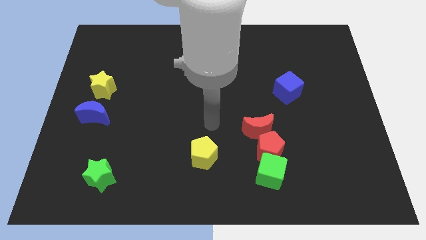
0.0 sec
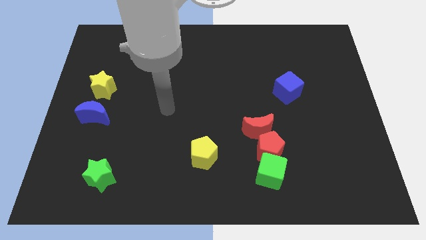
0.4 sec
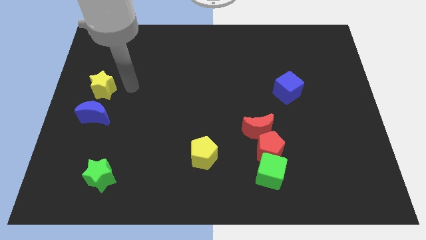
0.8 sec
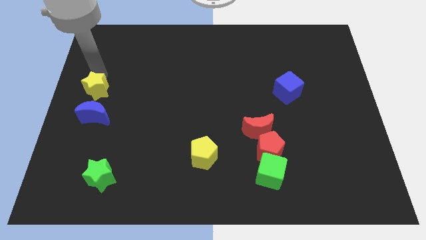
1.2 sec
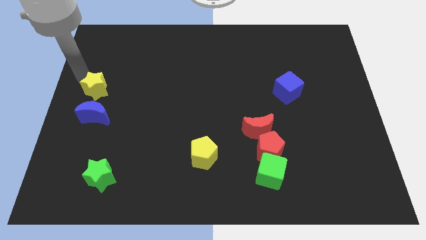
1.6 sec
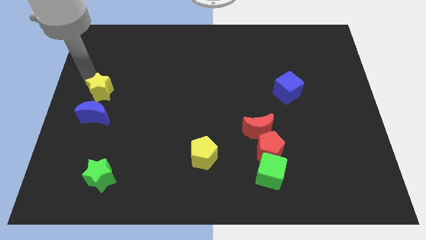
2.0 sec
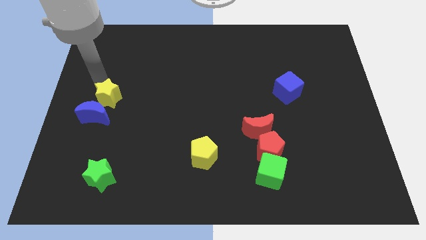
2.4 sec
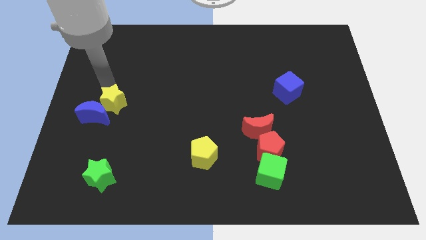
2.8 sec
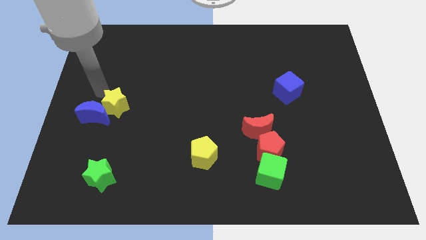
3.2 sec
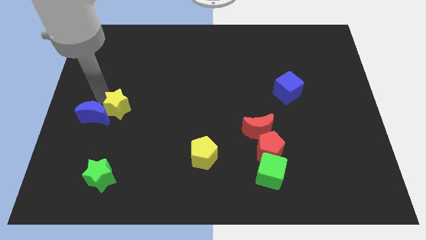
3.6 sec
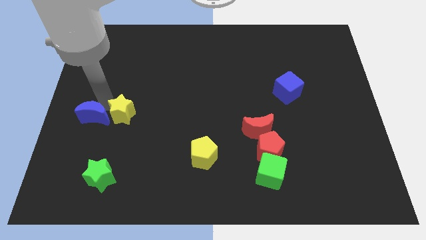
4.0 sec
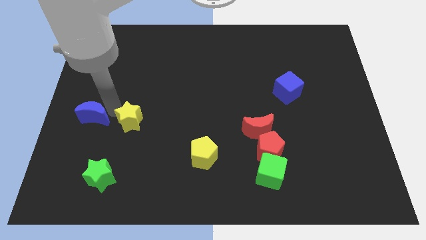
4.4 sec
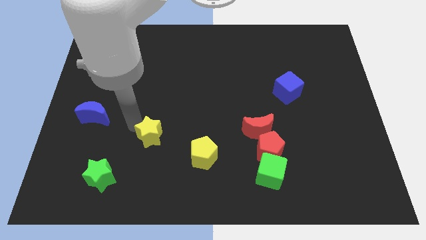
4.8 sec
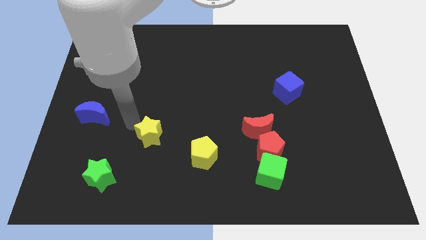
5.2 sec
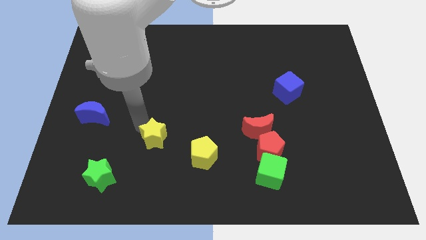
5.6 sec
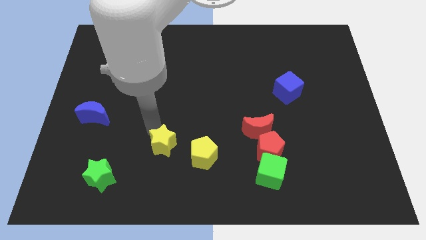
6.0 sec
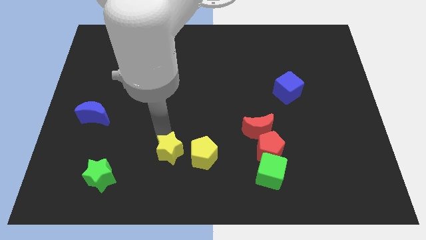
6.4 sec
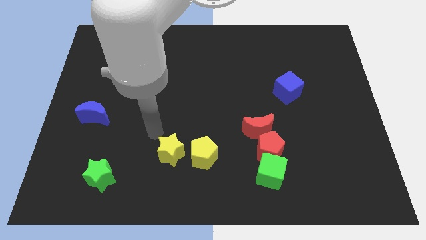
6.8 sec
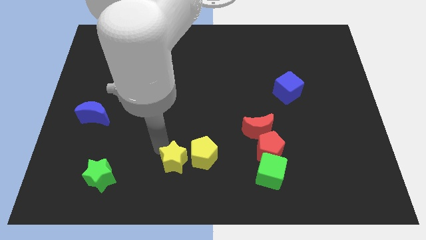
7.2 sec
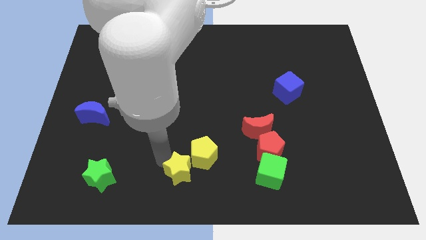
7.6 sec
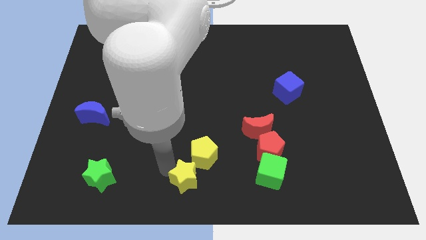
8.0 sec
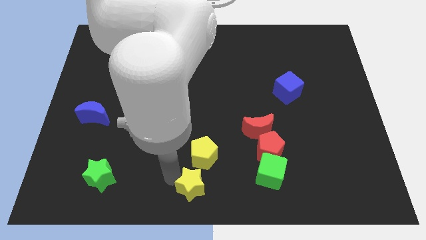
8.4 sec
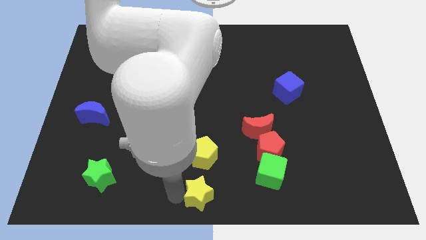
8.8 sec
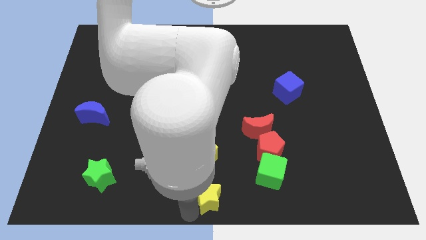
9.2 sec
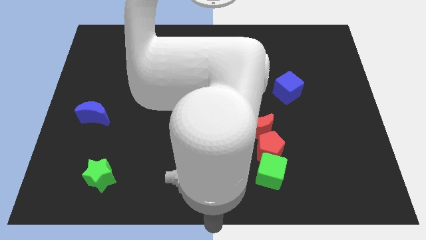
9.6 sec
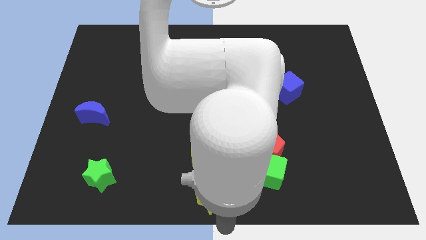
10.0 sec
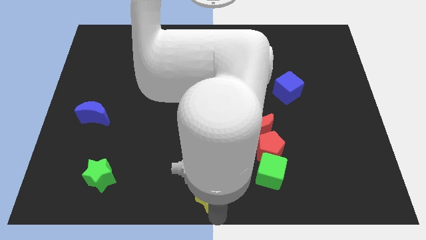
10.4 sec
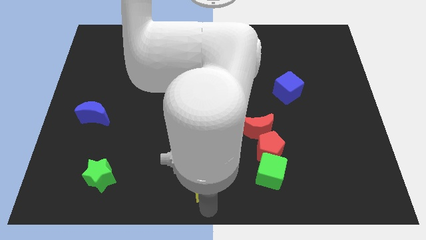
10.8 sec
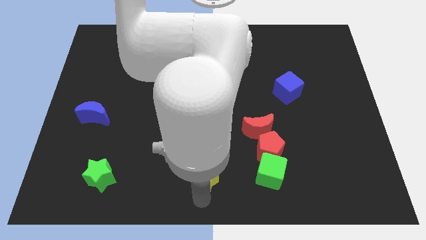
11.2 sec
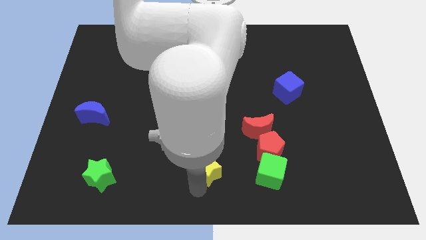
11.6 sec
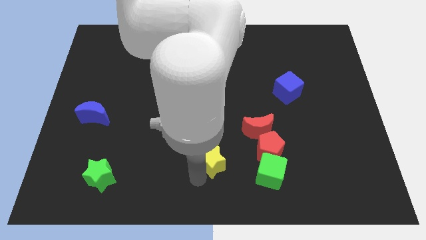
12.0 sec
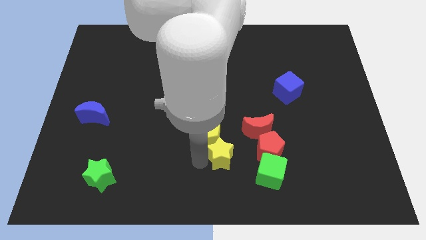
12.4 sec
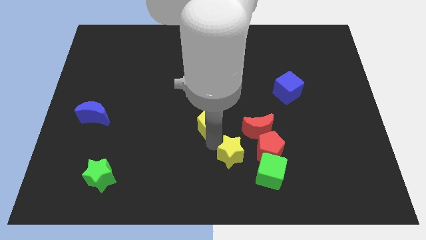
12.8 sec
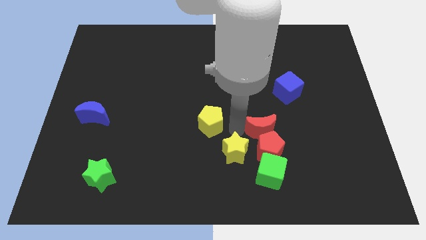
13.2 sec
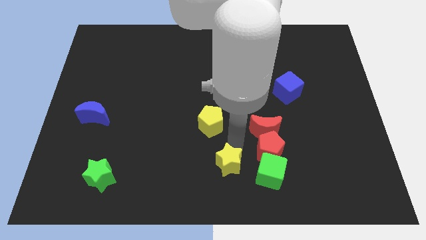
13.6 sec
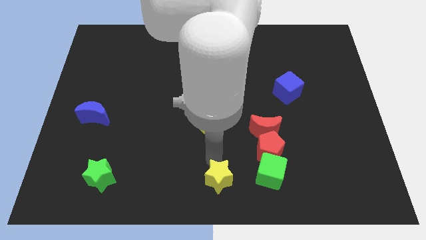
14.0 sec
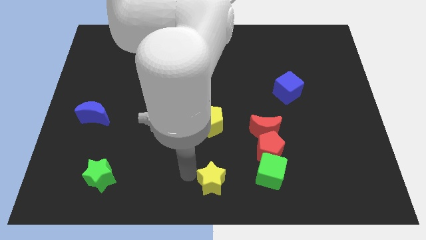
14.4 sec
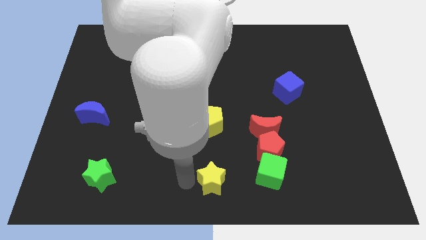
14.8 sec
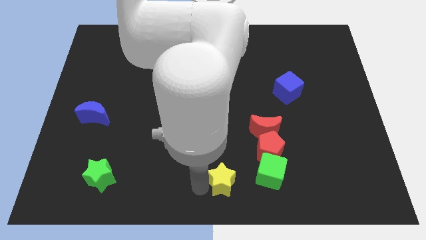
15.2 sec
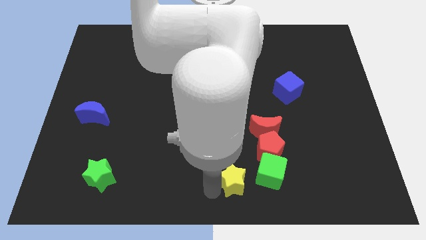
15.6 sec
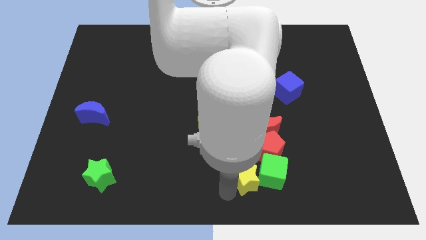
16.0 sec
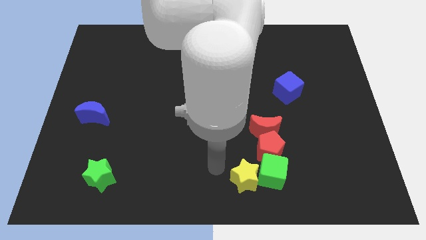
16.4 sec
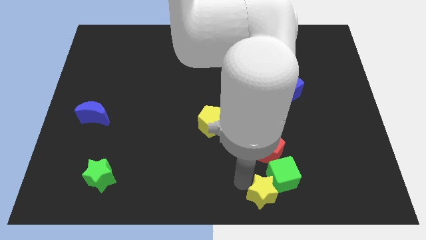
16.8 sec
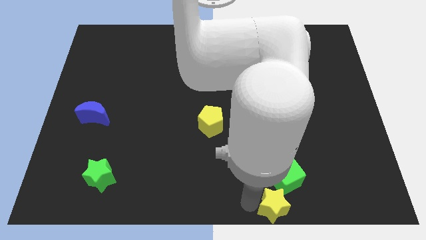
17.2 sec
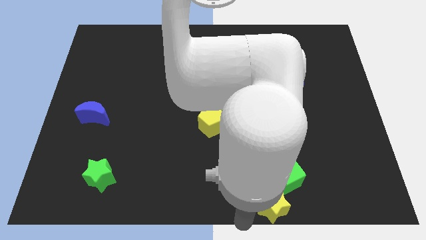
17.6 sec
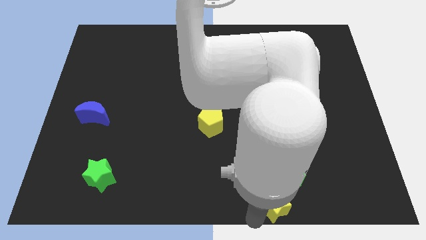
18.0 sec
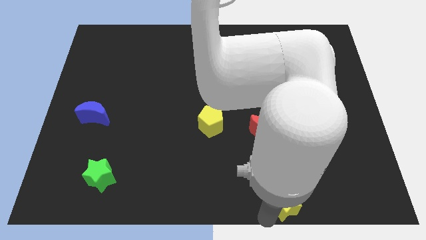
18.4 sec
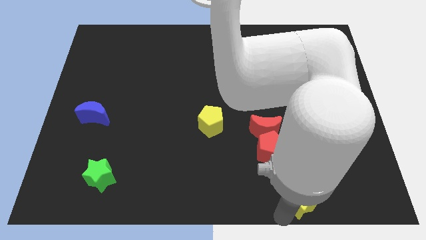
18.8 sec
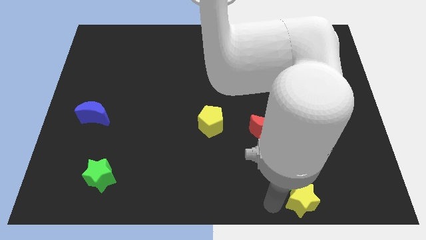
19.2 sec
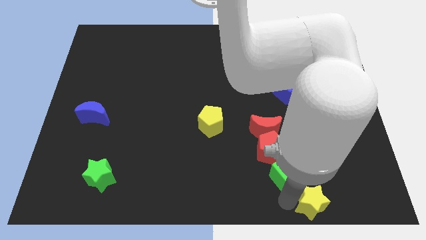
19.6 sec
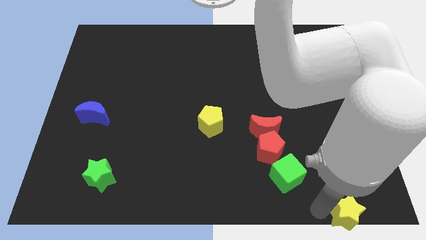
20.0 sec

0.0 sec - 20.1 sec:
push the yellow star to the bottom right of the board

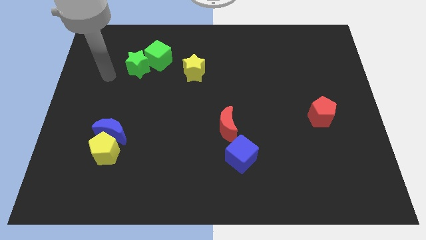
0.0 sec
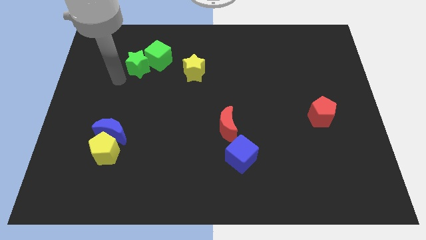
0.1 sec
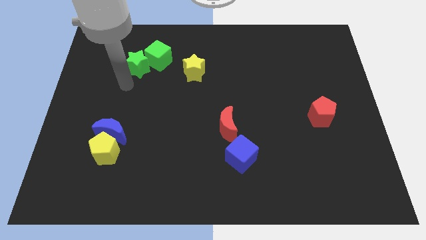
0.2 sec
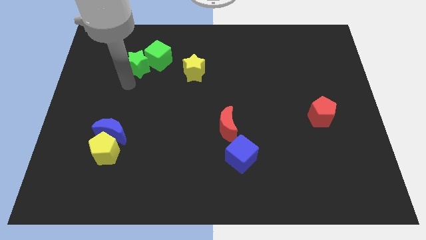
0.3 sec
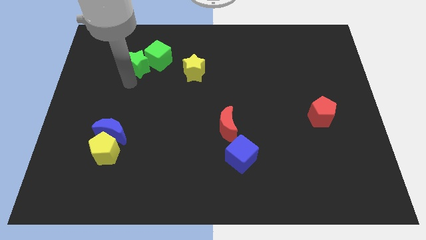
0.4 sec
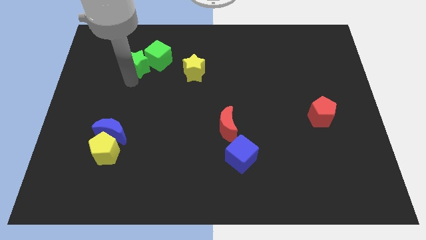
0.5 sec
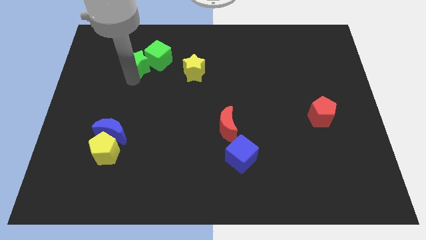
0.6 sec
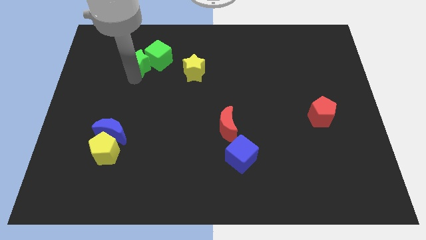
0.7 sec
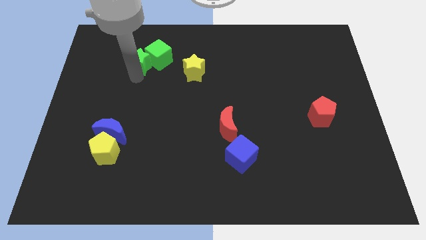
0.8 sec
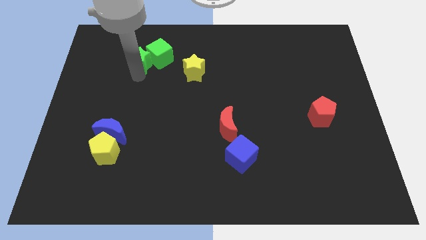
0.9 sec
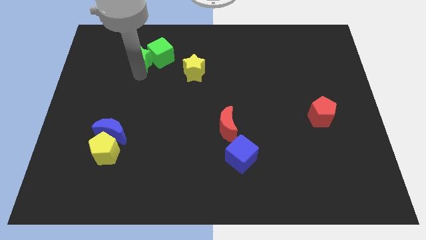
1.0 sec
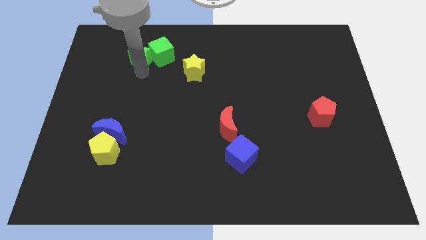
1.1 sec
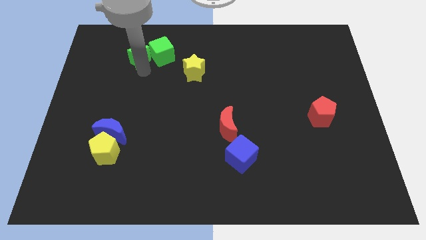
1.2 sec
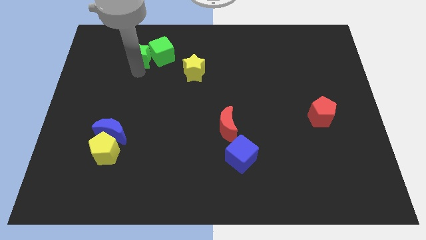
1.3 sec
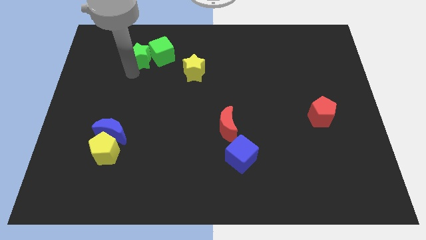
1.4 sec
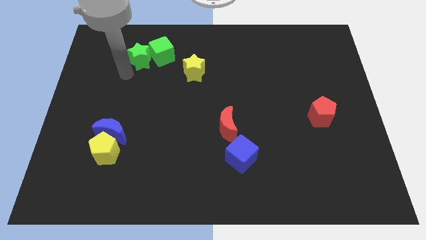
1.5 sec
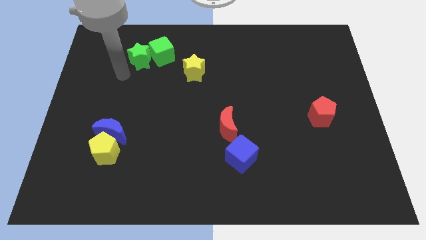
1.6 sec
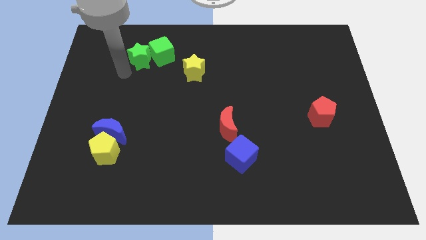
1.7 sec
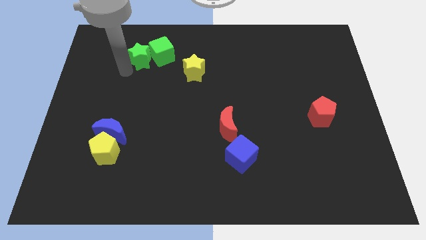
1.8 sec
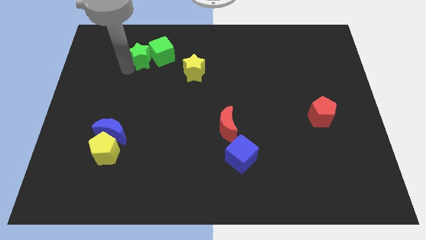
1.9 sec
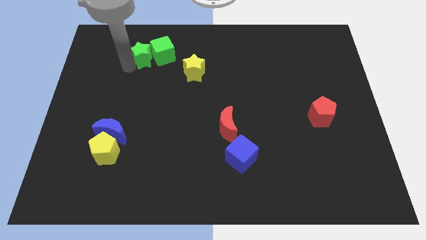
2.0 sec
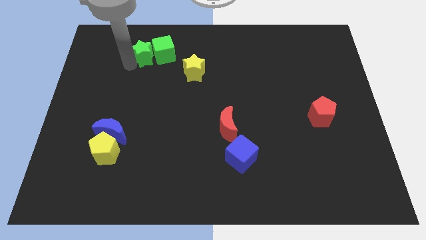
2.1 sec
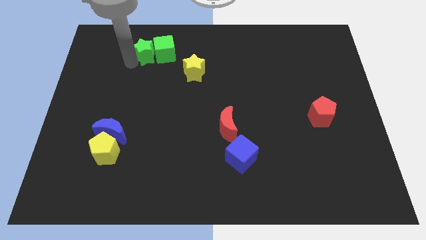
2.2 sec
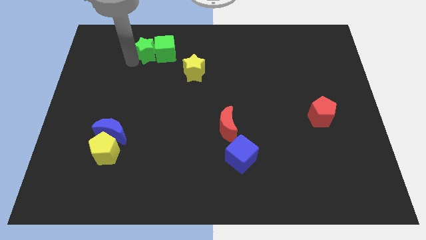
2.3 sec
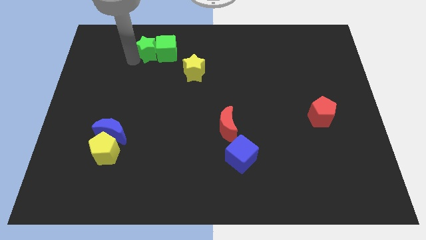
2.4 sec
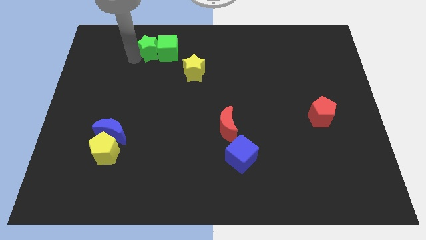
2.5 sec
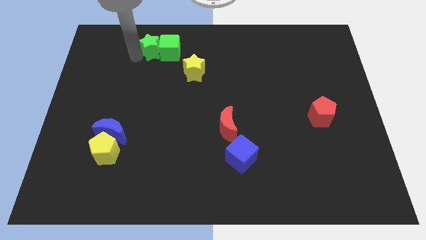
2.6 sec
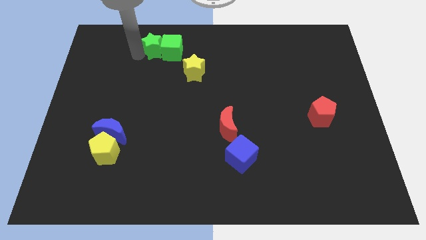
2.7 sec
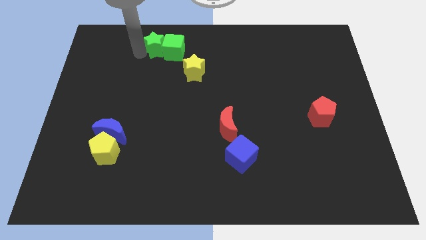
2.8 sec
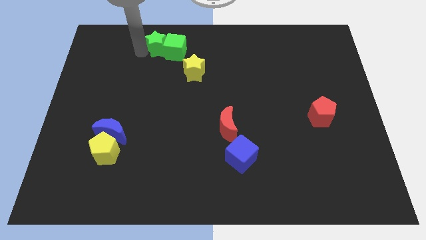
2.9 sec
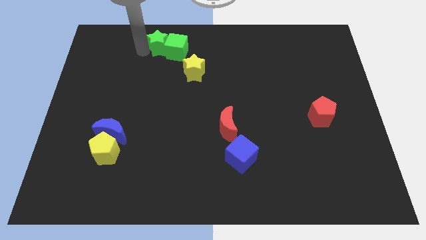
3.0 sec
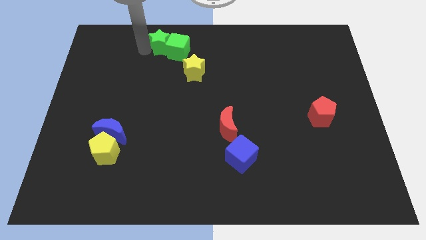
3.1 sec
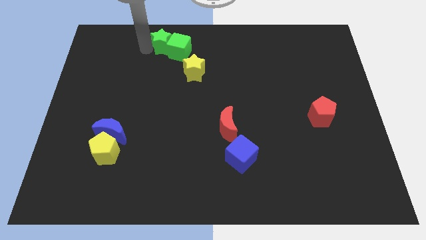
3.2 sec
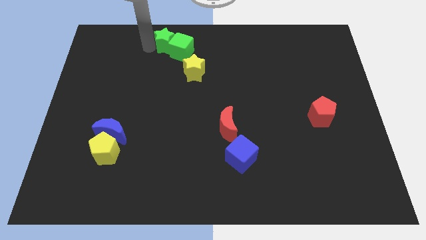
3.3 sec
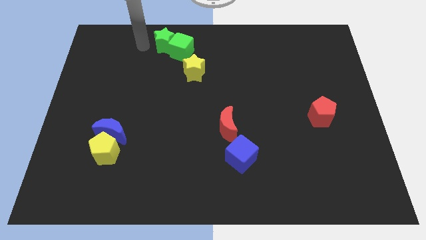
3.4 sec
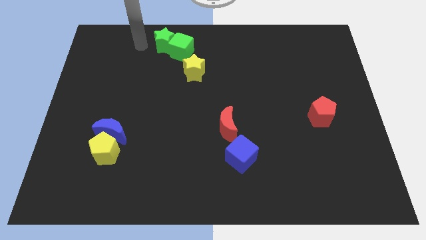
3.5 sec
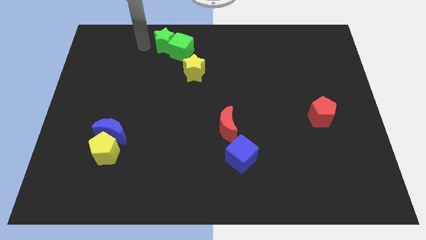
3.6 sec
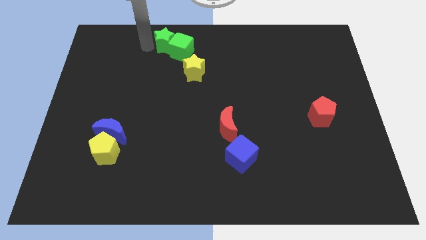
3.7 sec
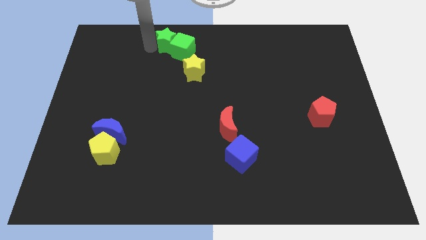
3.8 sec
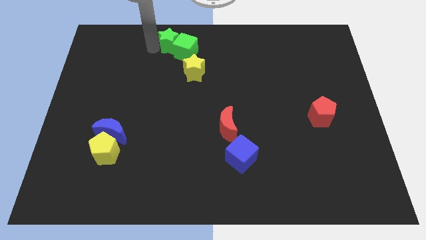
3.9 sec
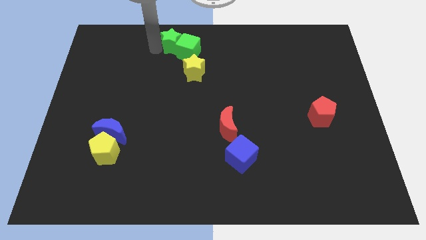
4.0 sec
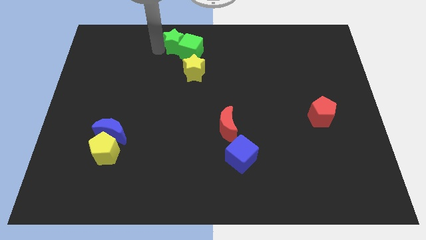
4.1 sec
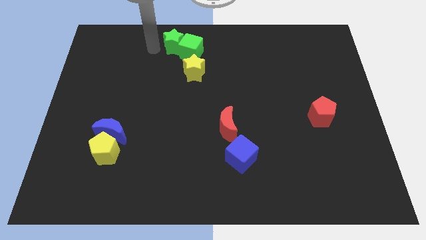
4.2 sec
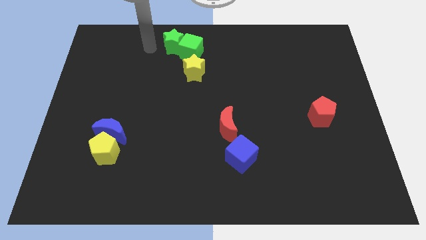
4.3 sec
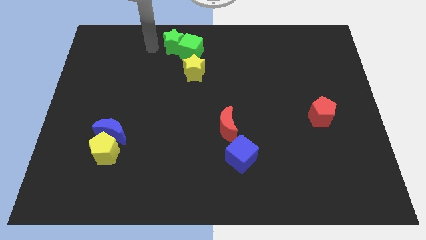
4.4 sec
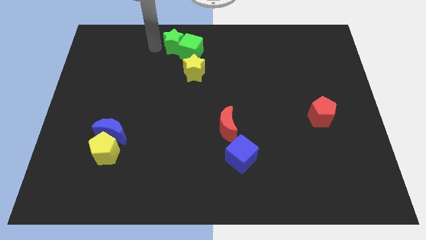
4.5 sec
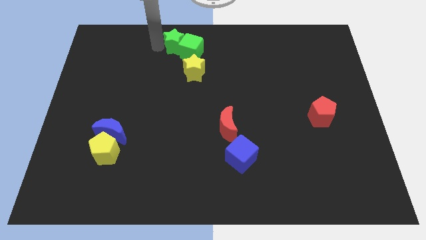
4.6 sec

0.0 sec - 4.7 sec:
slide the green star to the top
